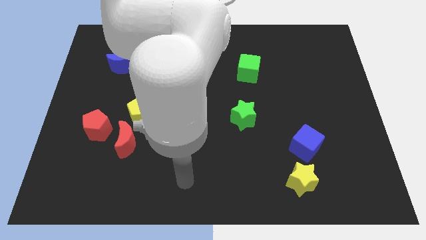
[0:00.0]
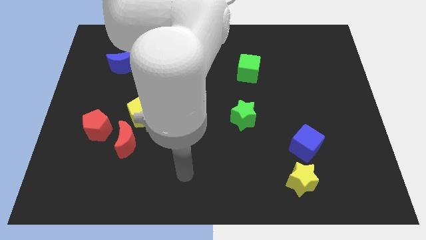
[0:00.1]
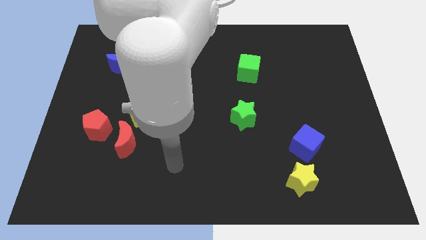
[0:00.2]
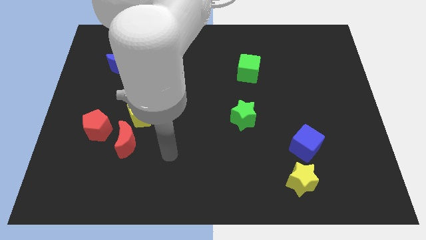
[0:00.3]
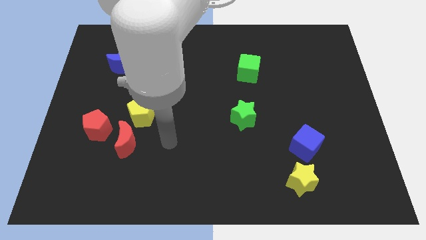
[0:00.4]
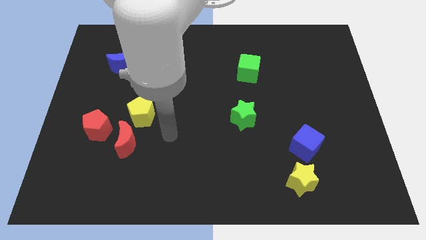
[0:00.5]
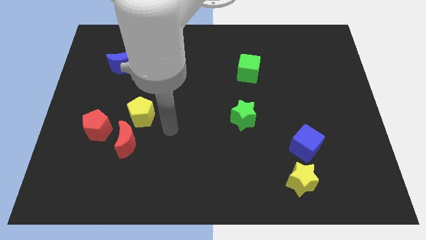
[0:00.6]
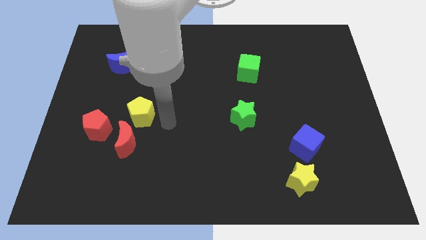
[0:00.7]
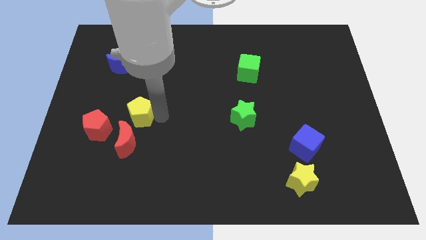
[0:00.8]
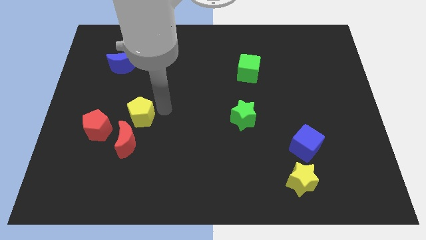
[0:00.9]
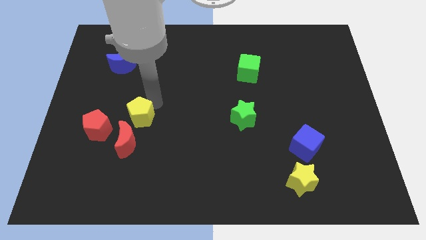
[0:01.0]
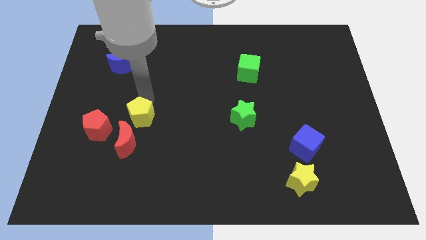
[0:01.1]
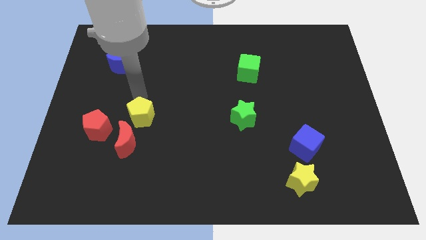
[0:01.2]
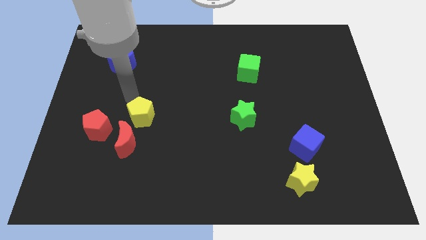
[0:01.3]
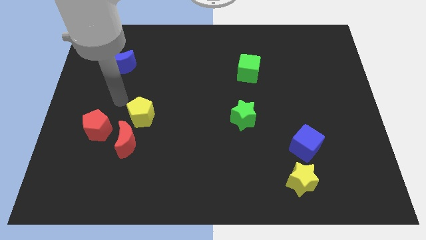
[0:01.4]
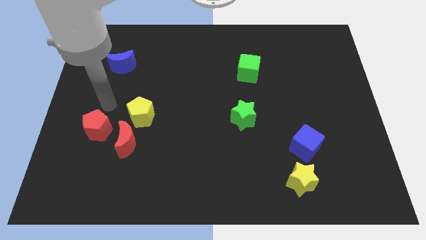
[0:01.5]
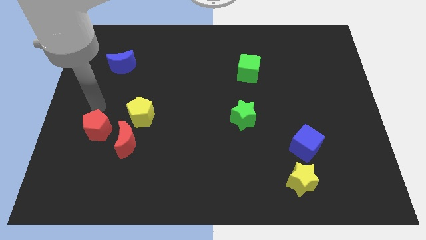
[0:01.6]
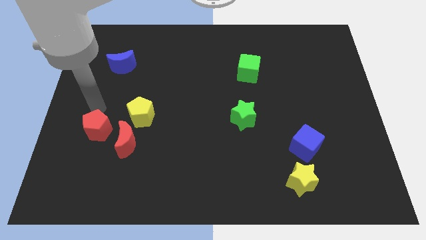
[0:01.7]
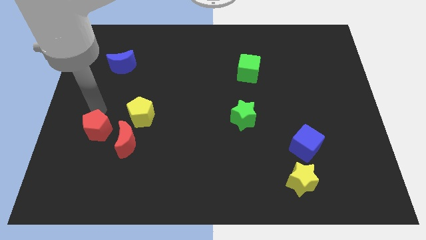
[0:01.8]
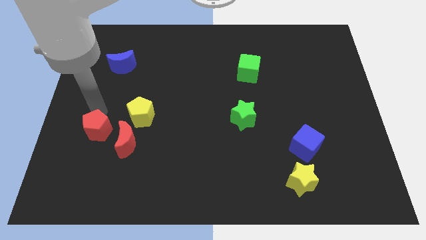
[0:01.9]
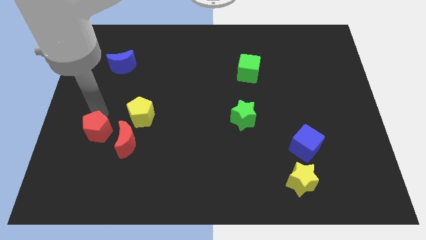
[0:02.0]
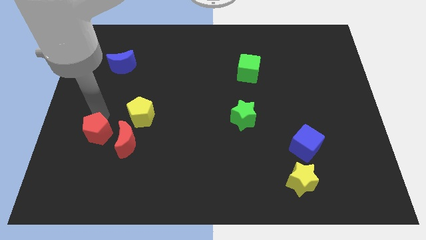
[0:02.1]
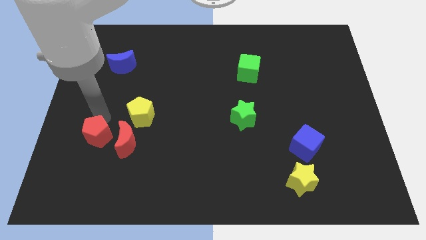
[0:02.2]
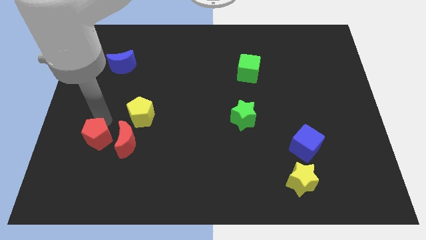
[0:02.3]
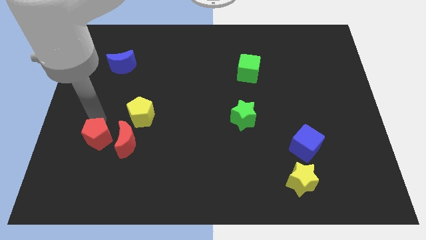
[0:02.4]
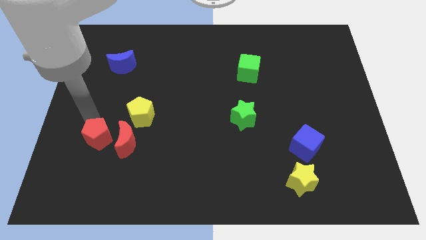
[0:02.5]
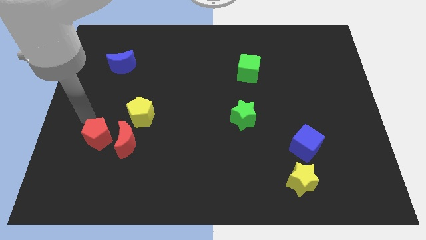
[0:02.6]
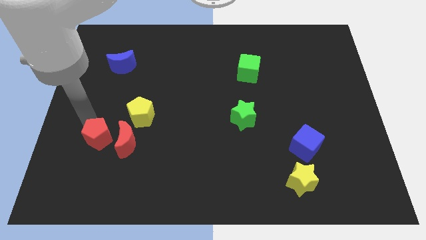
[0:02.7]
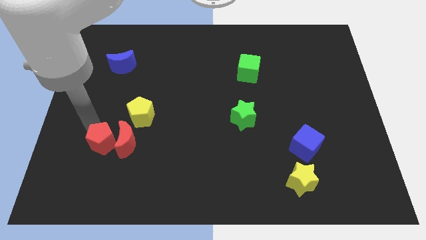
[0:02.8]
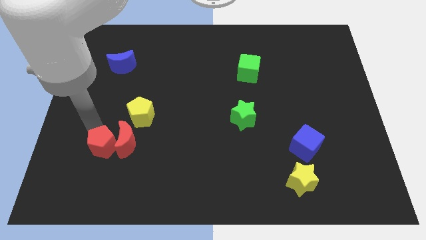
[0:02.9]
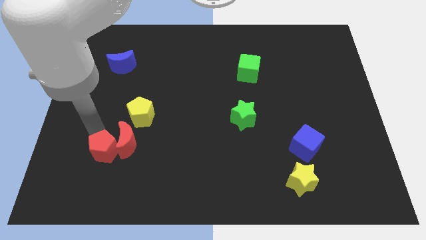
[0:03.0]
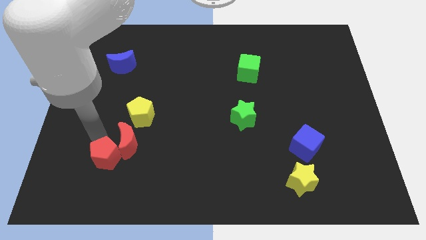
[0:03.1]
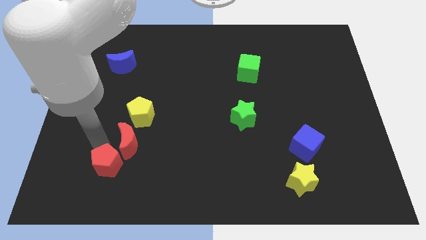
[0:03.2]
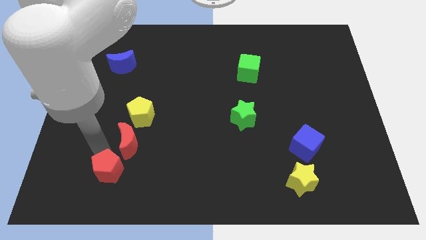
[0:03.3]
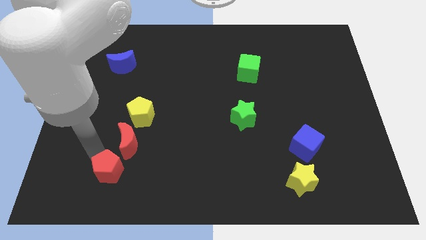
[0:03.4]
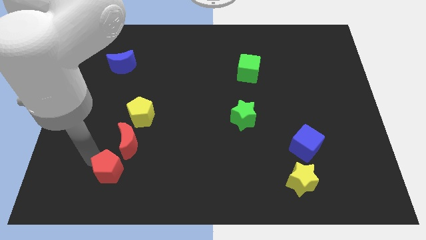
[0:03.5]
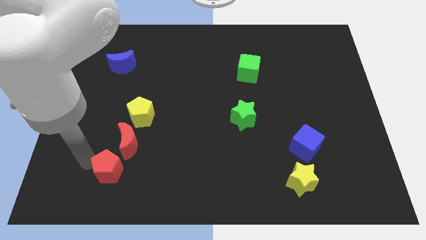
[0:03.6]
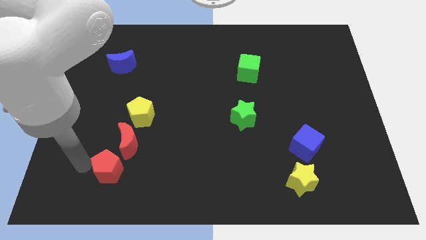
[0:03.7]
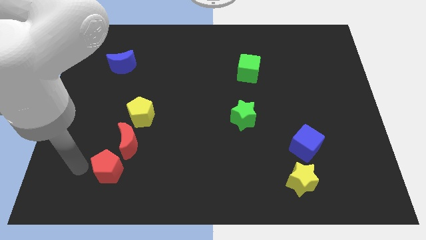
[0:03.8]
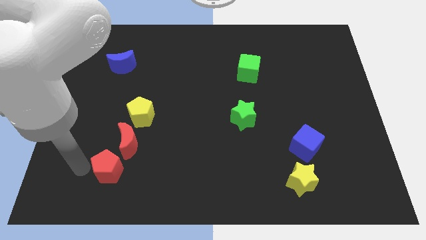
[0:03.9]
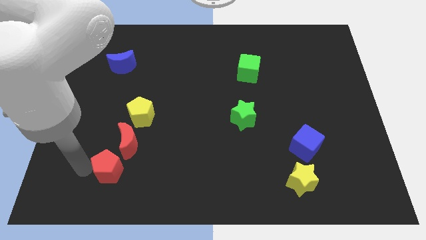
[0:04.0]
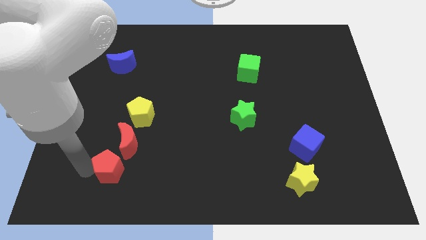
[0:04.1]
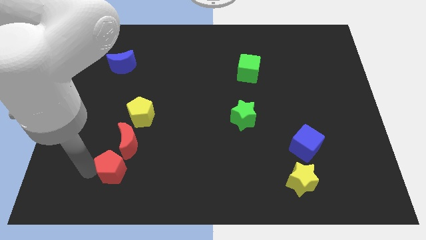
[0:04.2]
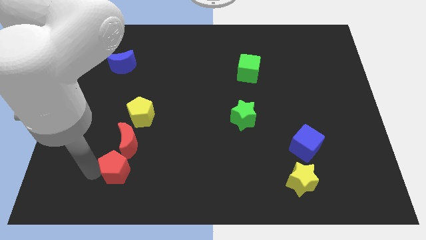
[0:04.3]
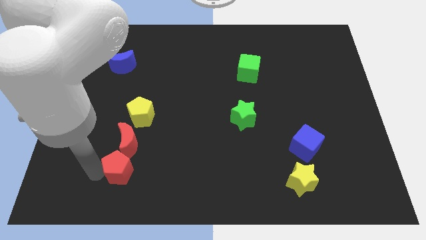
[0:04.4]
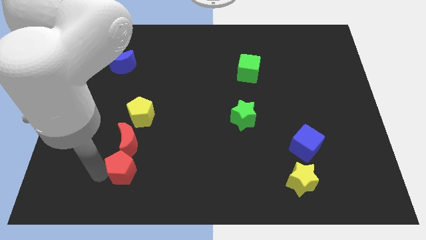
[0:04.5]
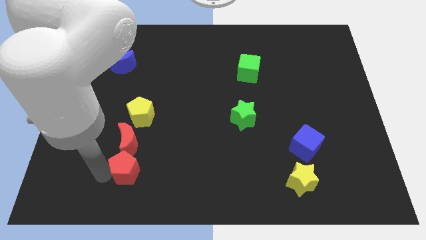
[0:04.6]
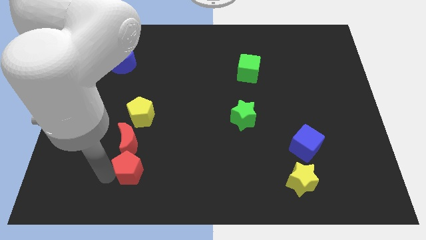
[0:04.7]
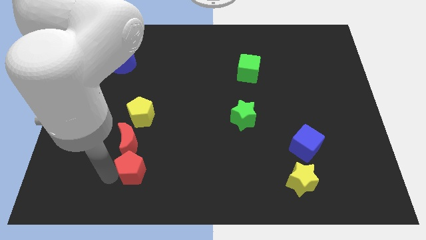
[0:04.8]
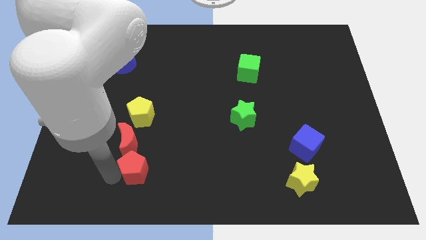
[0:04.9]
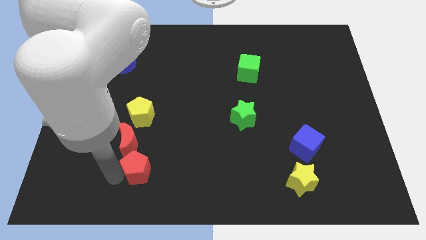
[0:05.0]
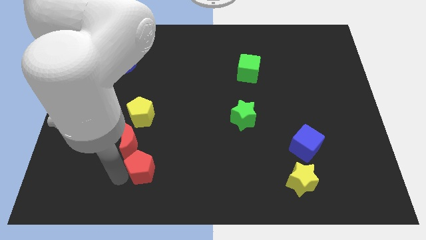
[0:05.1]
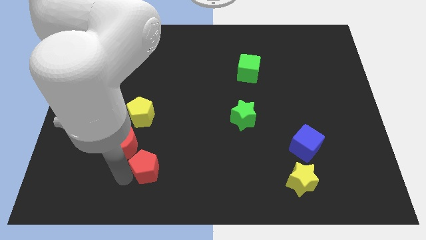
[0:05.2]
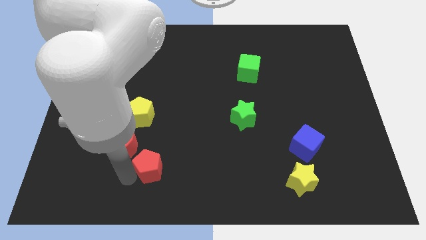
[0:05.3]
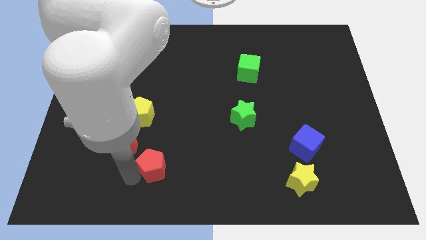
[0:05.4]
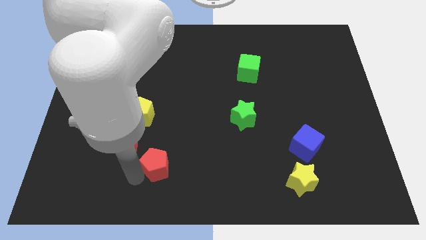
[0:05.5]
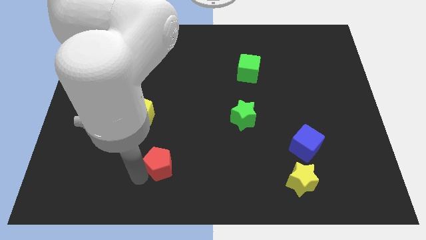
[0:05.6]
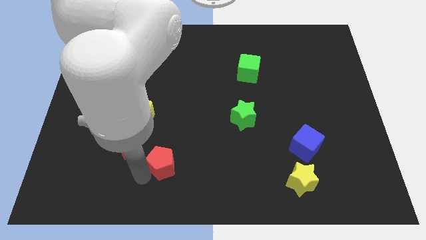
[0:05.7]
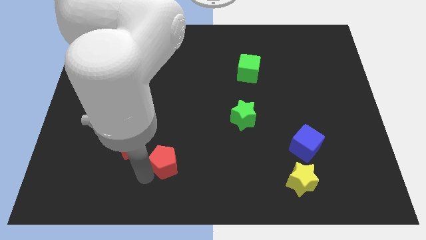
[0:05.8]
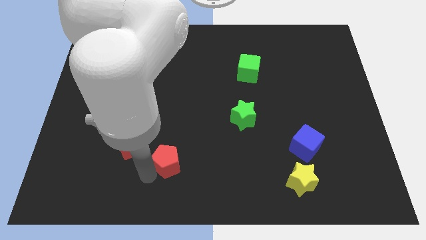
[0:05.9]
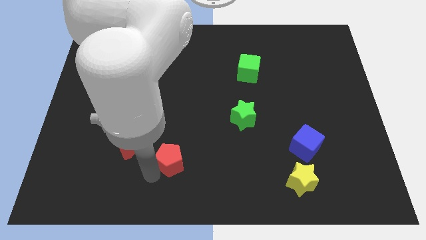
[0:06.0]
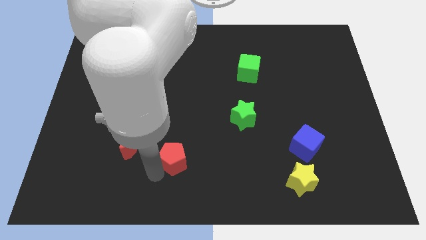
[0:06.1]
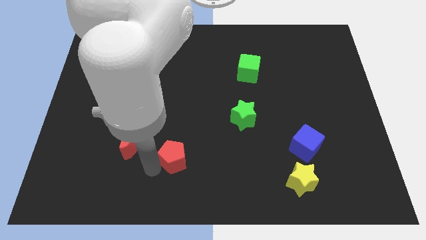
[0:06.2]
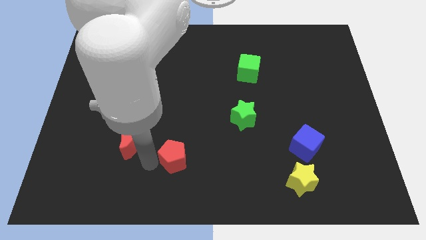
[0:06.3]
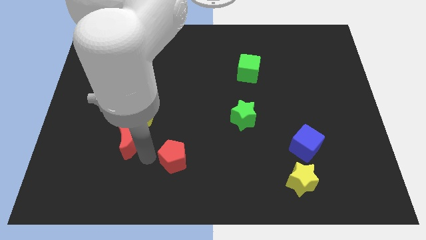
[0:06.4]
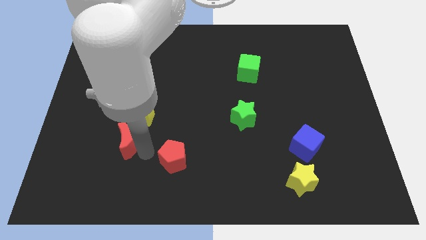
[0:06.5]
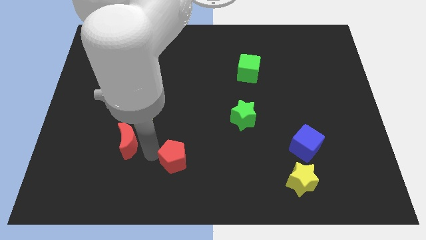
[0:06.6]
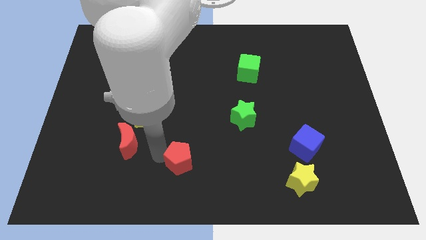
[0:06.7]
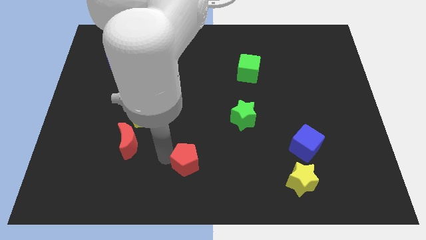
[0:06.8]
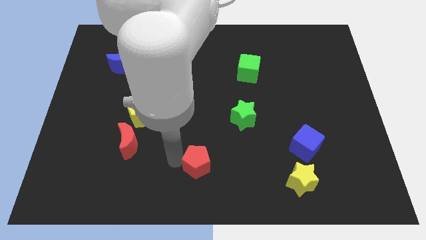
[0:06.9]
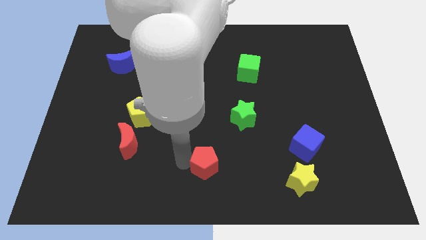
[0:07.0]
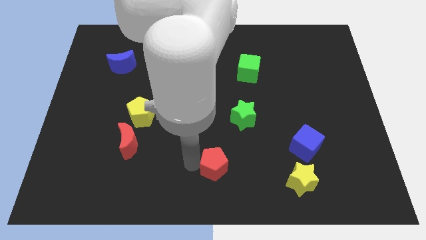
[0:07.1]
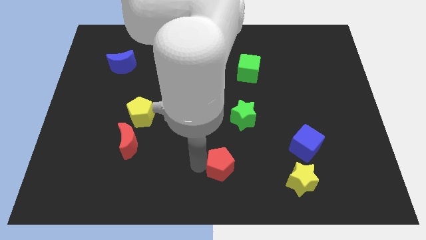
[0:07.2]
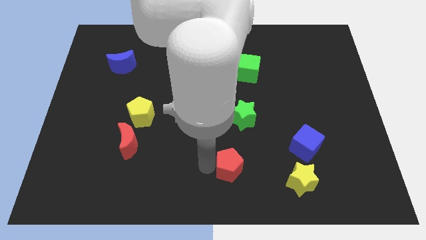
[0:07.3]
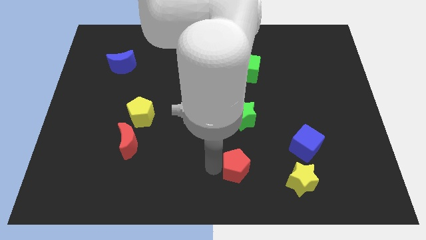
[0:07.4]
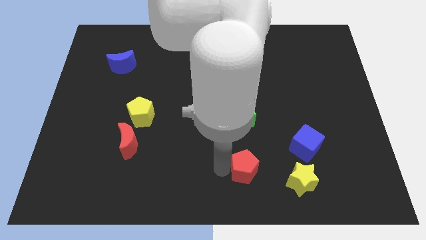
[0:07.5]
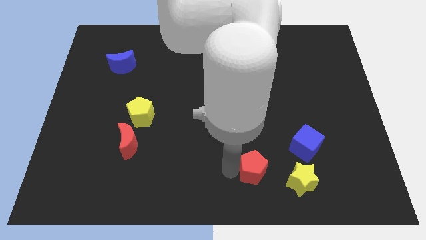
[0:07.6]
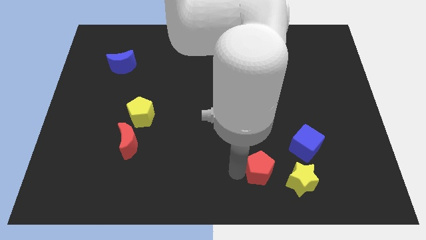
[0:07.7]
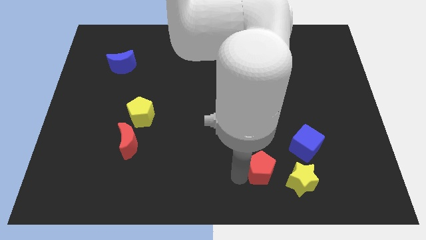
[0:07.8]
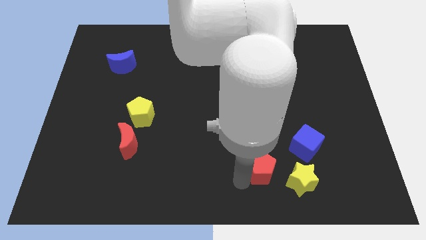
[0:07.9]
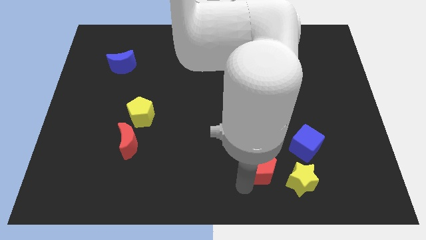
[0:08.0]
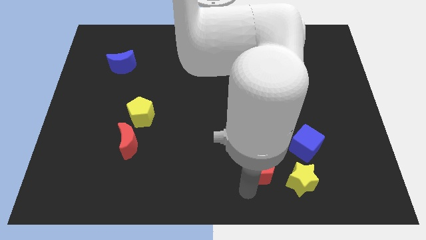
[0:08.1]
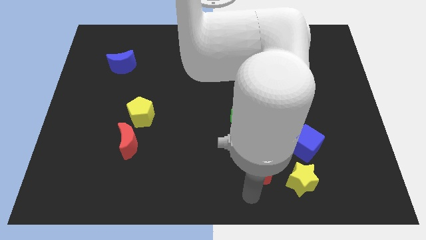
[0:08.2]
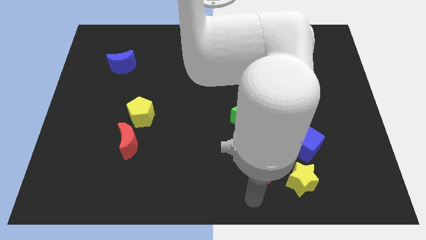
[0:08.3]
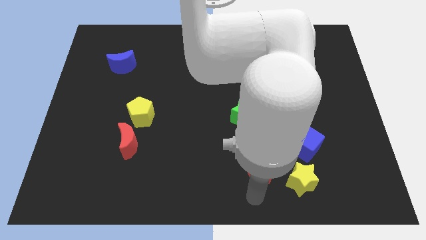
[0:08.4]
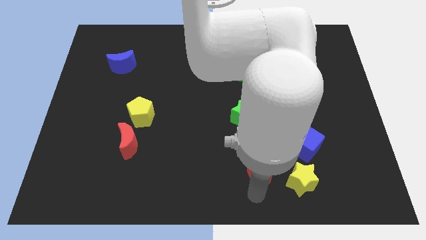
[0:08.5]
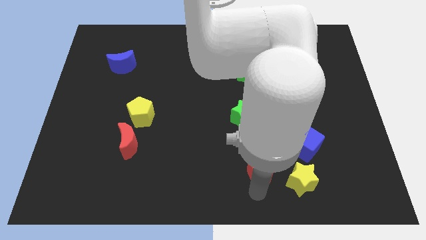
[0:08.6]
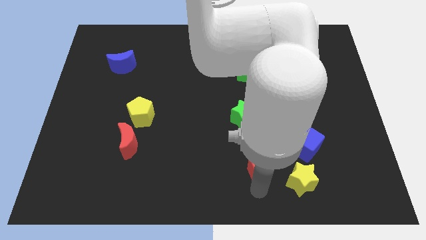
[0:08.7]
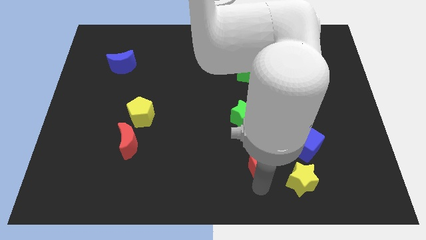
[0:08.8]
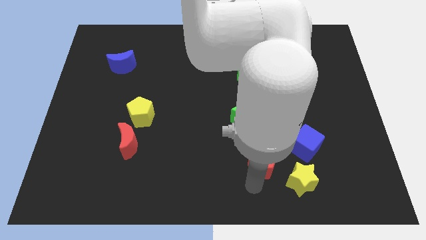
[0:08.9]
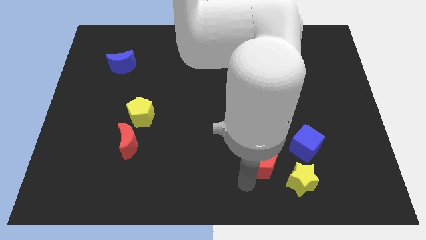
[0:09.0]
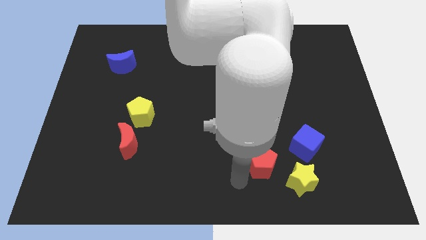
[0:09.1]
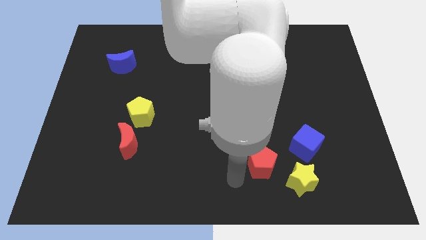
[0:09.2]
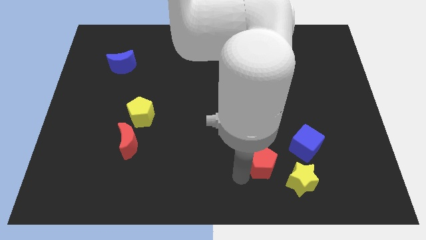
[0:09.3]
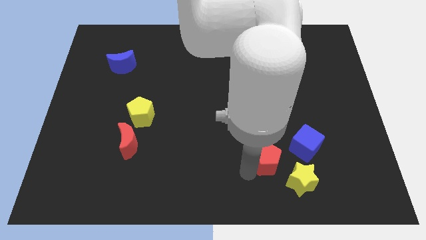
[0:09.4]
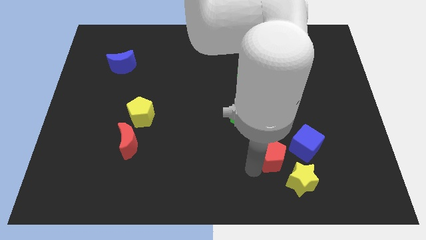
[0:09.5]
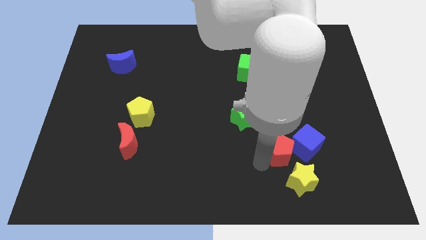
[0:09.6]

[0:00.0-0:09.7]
slide the red pentagon next to the blue cube
